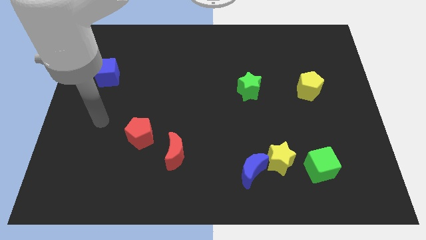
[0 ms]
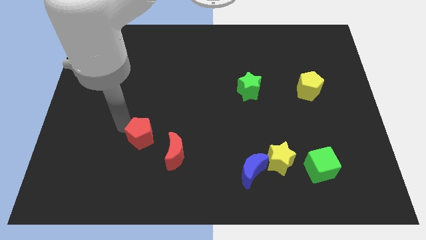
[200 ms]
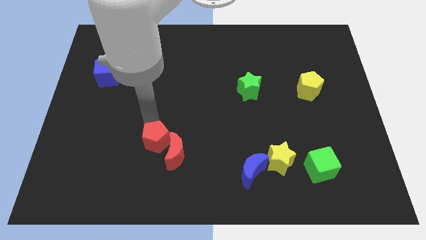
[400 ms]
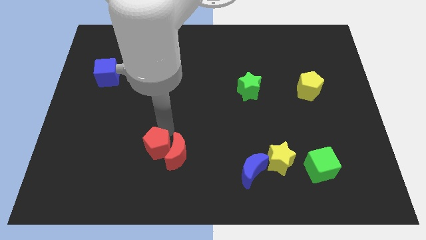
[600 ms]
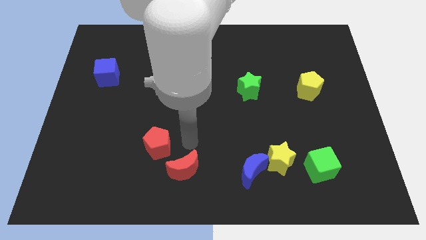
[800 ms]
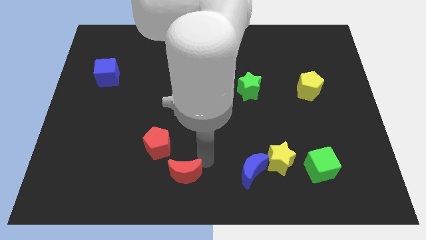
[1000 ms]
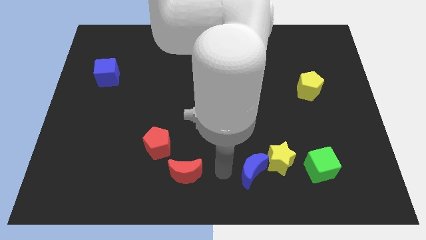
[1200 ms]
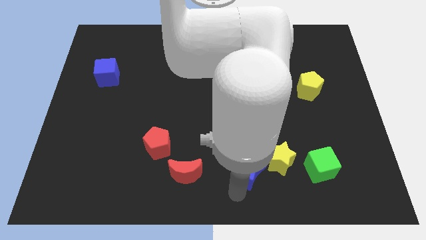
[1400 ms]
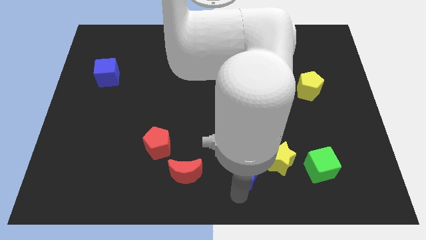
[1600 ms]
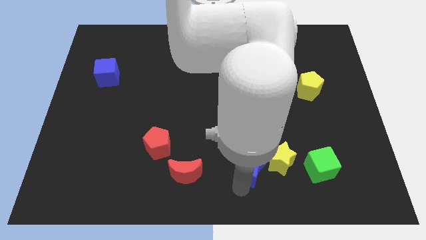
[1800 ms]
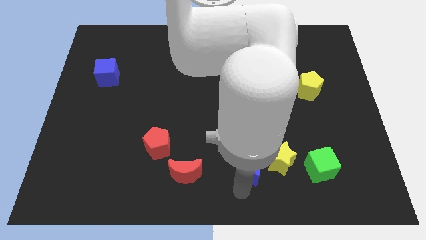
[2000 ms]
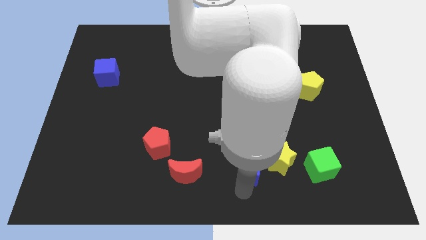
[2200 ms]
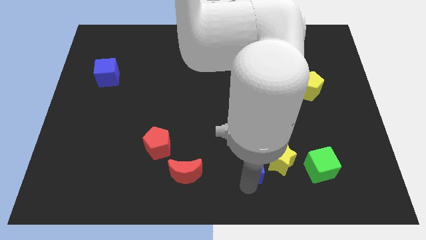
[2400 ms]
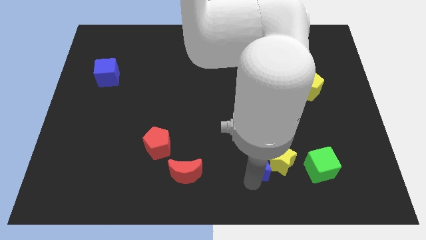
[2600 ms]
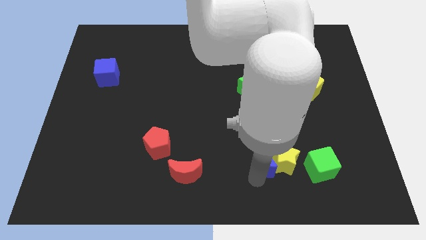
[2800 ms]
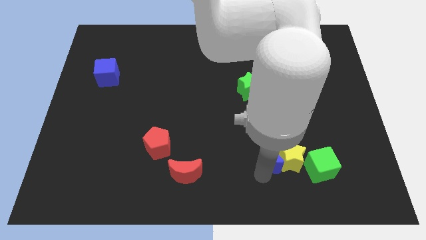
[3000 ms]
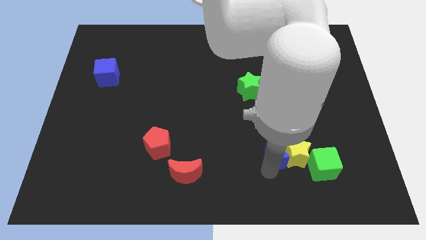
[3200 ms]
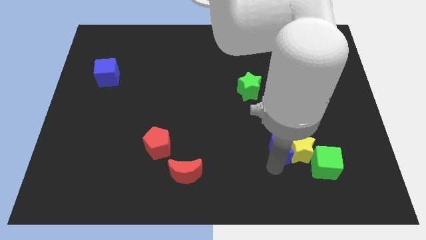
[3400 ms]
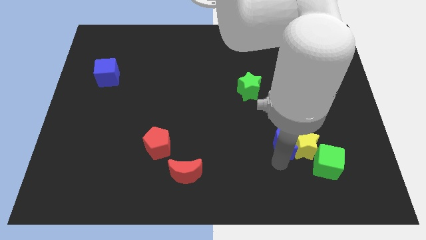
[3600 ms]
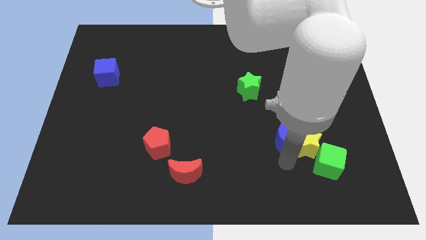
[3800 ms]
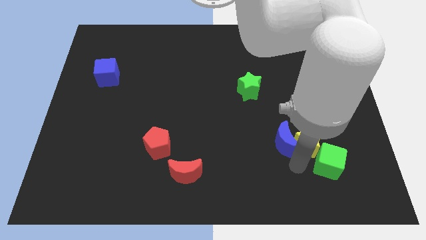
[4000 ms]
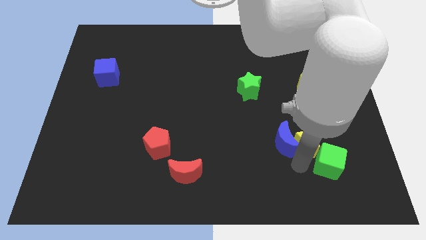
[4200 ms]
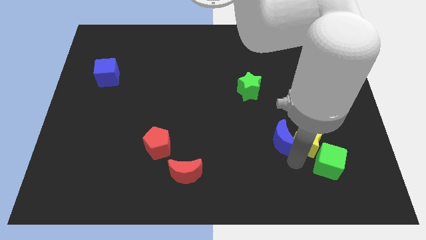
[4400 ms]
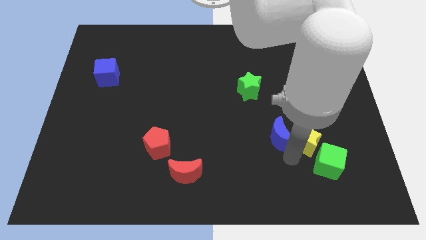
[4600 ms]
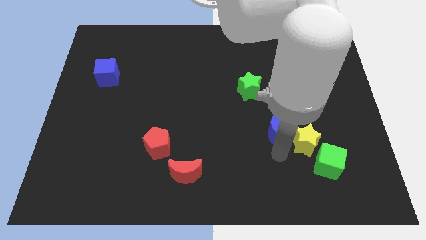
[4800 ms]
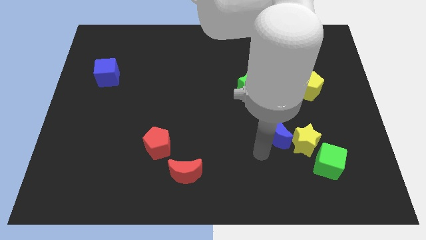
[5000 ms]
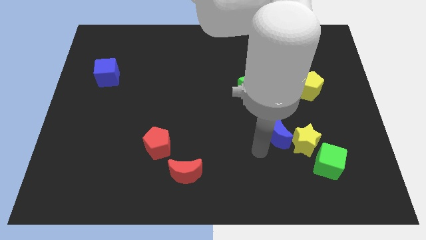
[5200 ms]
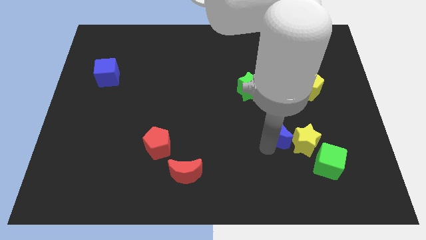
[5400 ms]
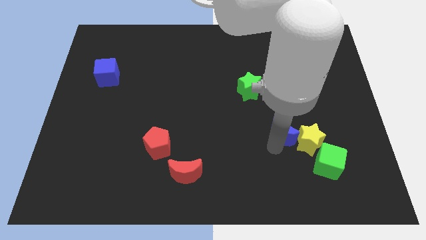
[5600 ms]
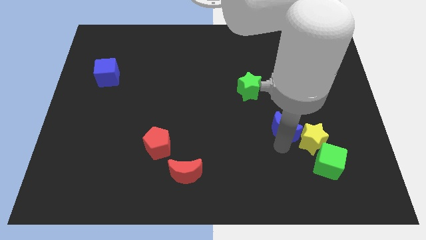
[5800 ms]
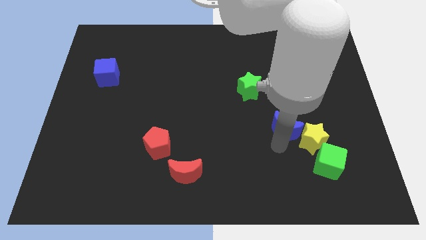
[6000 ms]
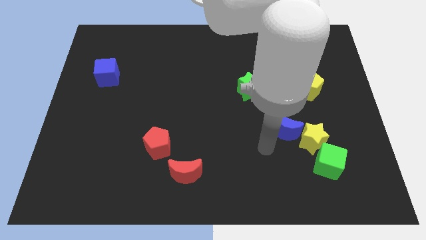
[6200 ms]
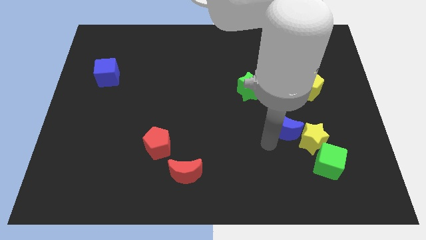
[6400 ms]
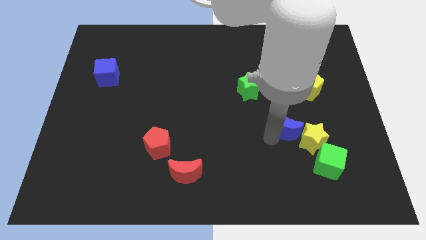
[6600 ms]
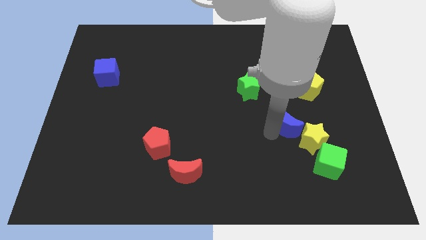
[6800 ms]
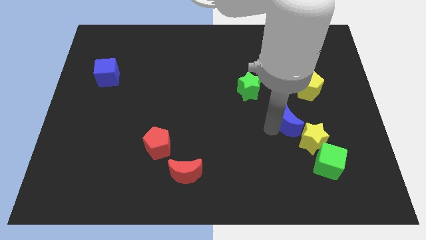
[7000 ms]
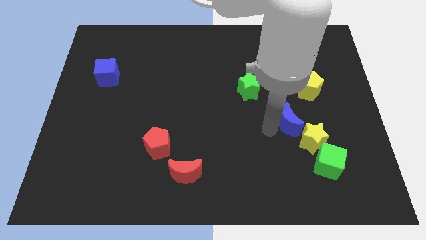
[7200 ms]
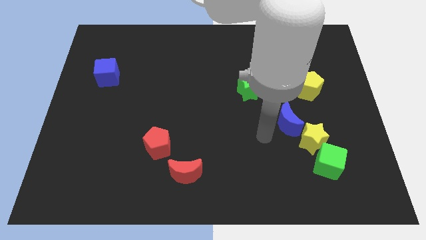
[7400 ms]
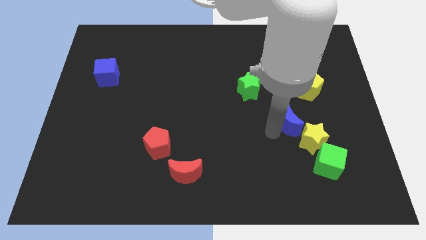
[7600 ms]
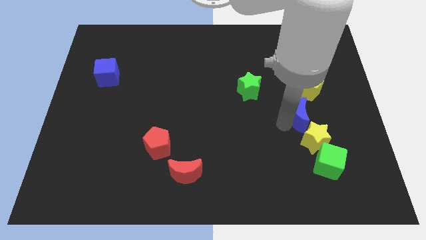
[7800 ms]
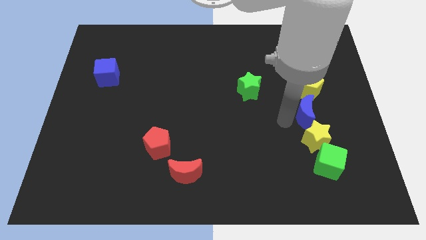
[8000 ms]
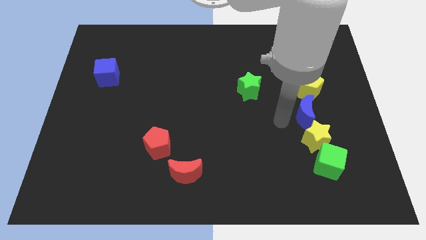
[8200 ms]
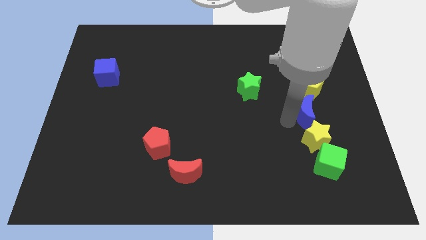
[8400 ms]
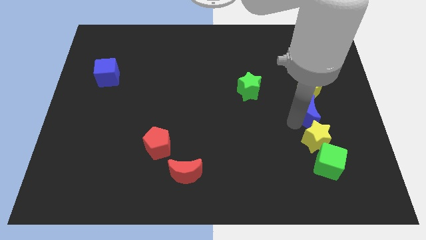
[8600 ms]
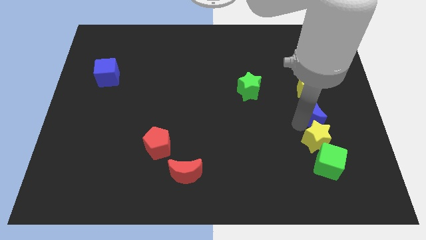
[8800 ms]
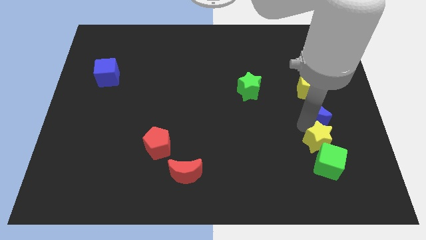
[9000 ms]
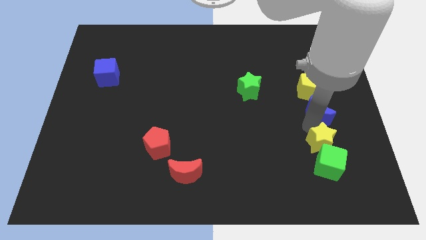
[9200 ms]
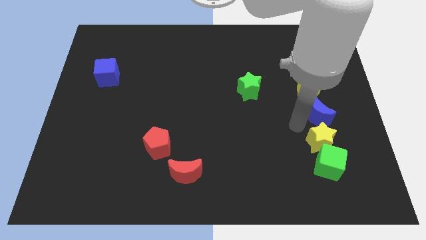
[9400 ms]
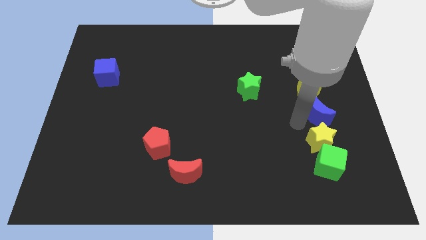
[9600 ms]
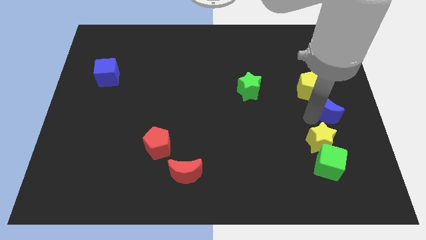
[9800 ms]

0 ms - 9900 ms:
put the blue moon to the right side of the board

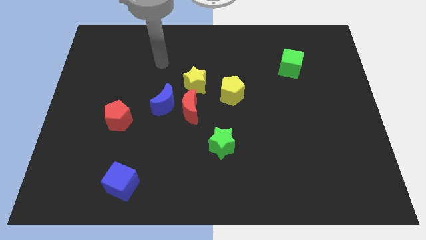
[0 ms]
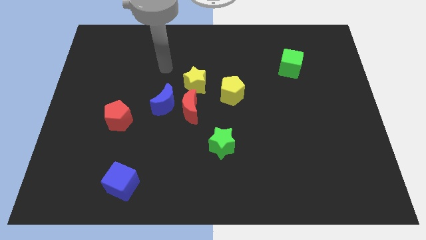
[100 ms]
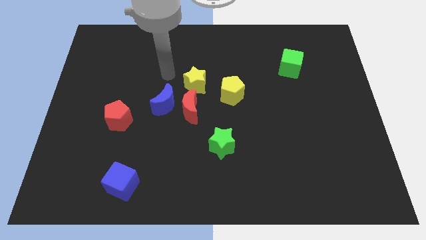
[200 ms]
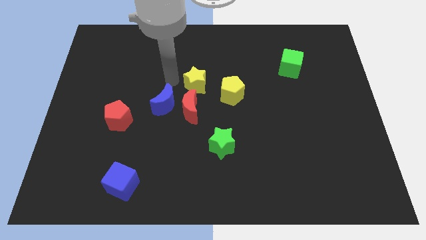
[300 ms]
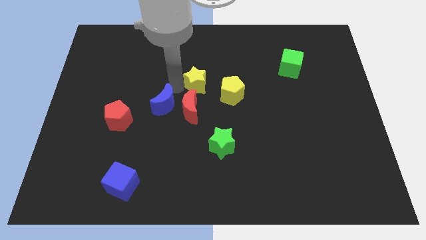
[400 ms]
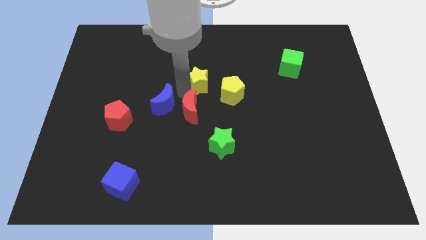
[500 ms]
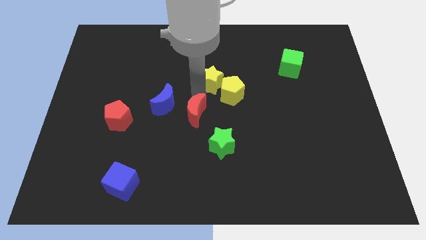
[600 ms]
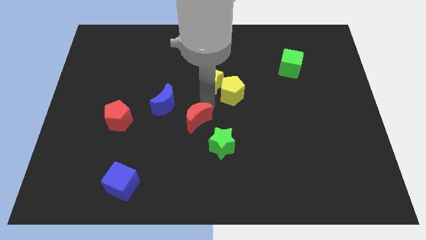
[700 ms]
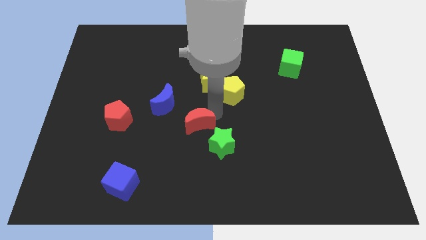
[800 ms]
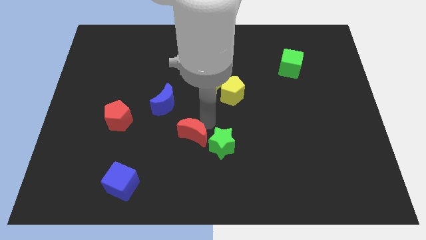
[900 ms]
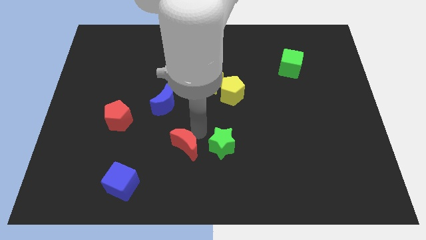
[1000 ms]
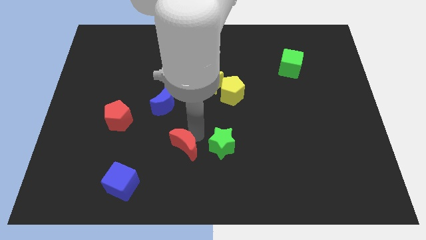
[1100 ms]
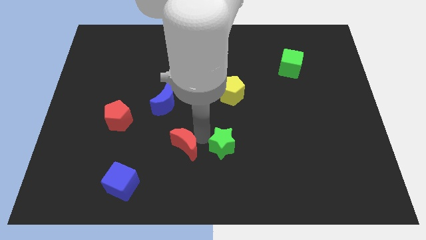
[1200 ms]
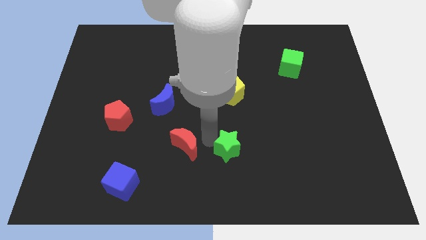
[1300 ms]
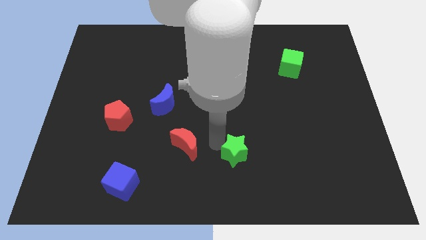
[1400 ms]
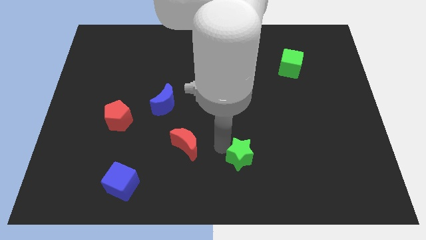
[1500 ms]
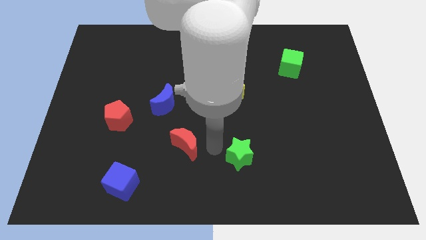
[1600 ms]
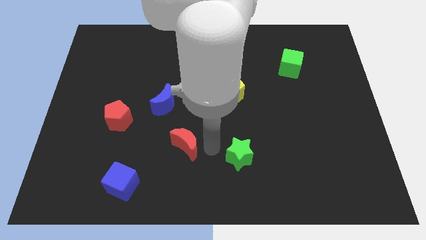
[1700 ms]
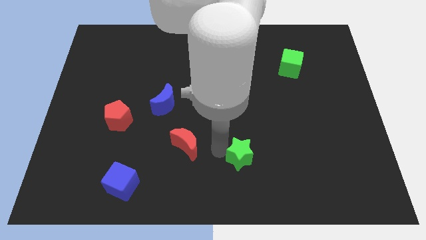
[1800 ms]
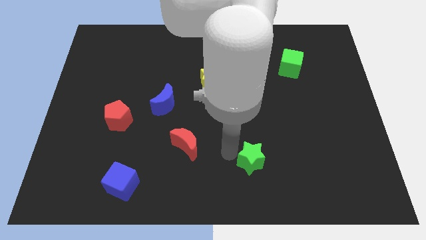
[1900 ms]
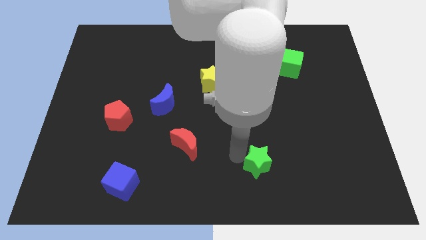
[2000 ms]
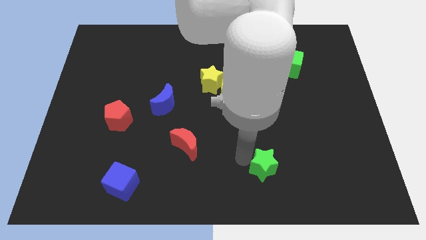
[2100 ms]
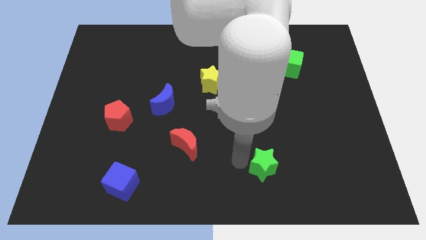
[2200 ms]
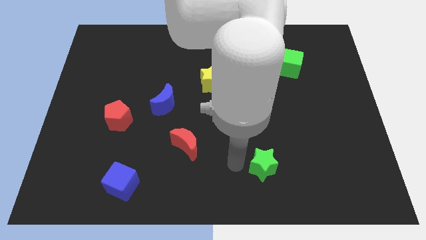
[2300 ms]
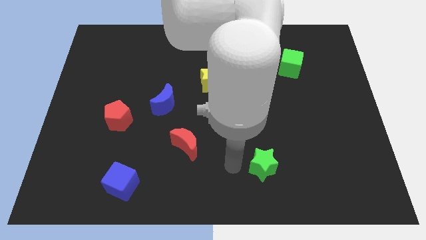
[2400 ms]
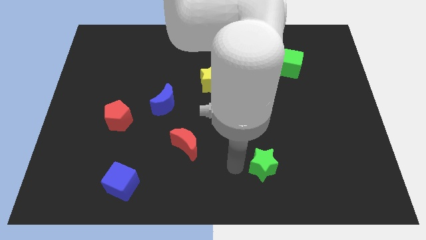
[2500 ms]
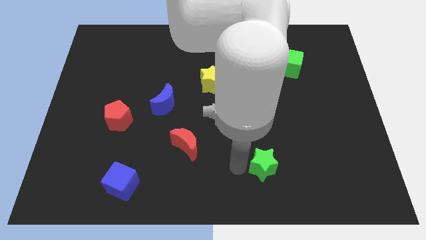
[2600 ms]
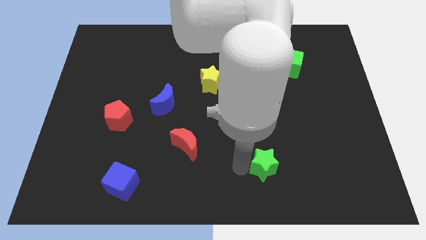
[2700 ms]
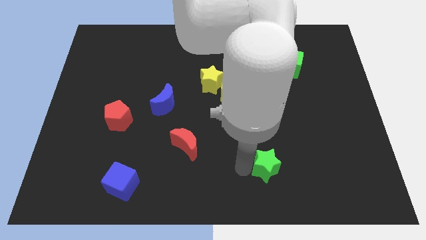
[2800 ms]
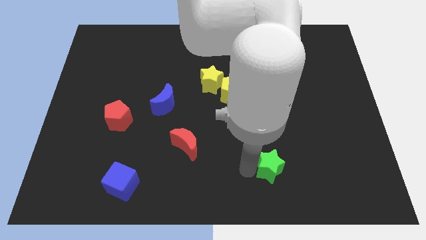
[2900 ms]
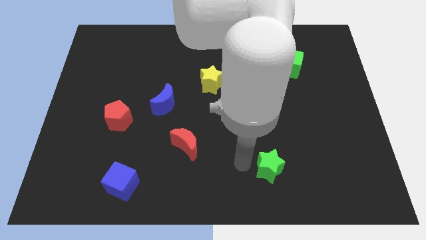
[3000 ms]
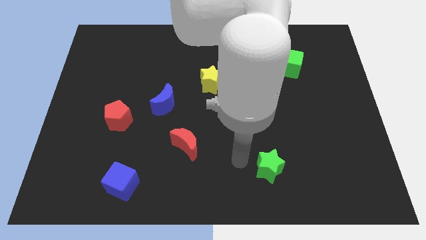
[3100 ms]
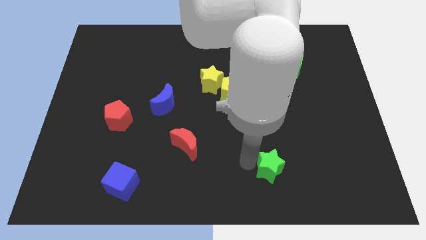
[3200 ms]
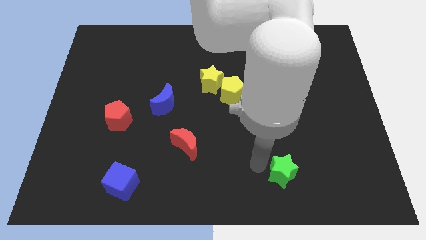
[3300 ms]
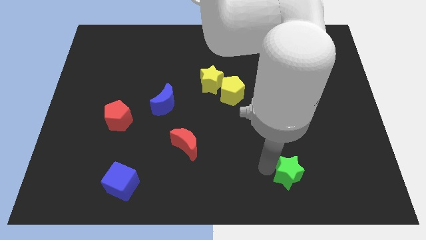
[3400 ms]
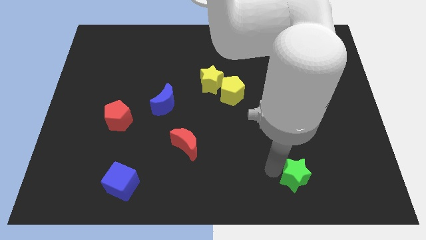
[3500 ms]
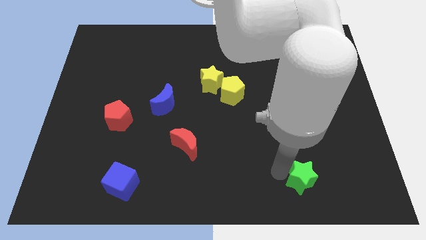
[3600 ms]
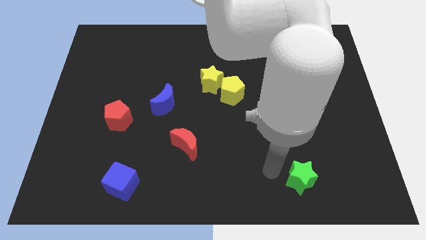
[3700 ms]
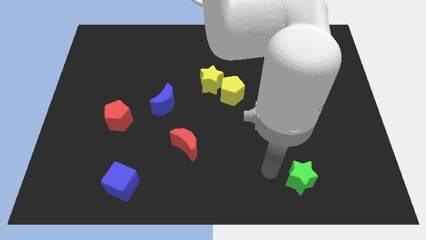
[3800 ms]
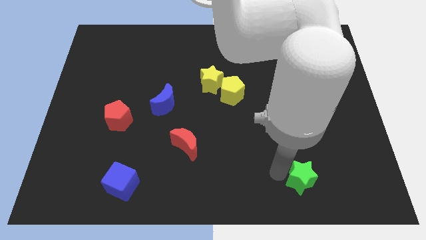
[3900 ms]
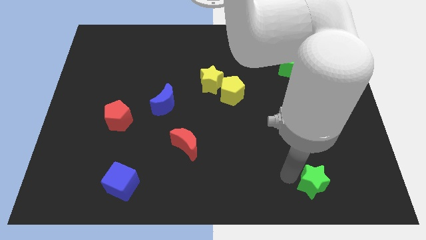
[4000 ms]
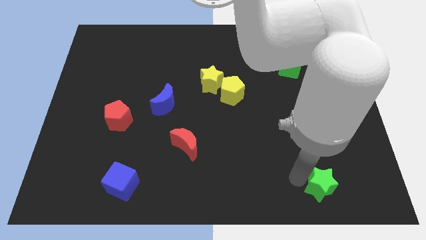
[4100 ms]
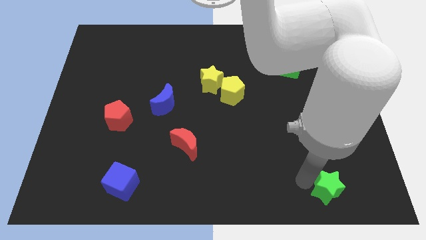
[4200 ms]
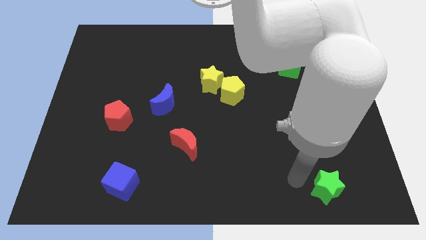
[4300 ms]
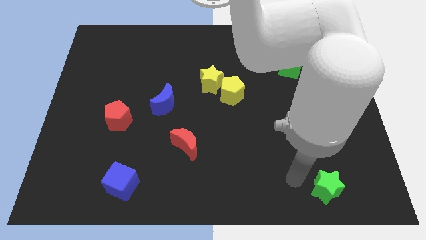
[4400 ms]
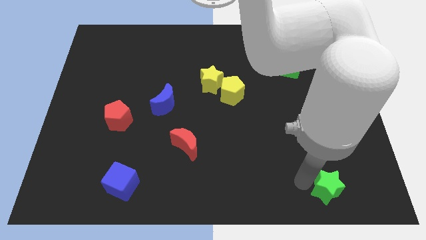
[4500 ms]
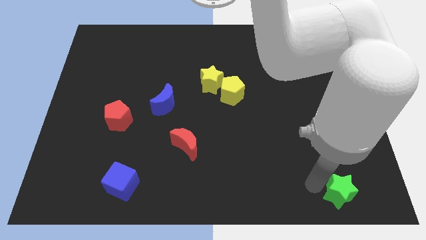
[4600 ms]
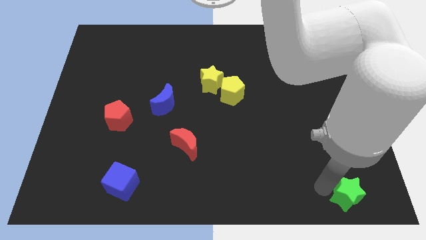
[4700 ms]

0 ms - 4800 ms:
slide the green star to the bottom right
